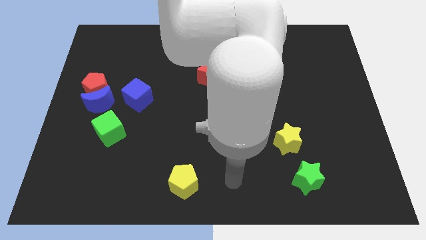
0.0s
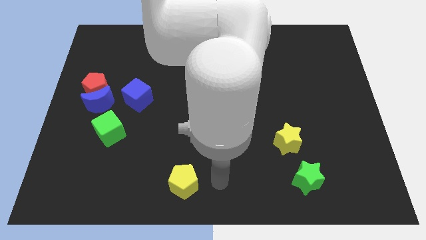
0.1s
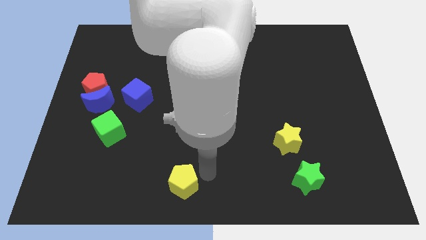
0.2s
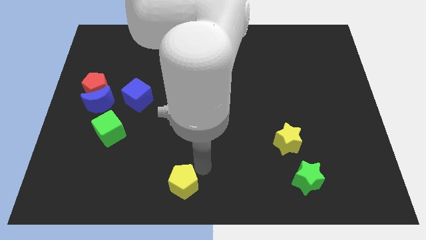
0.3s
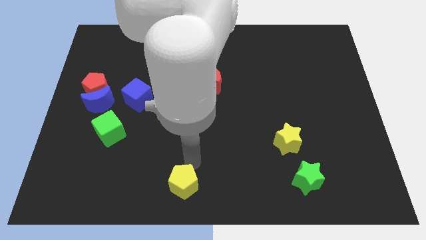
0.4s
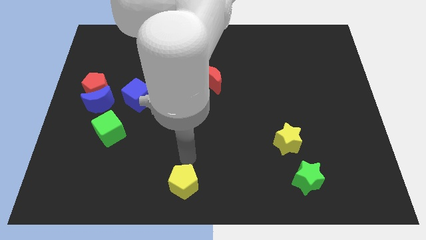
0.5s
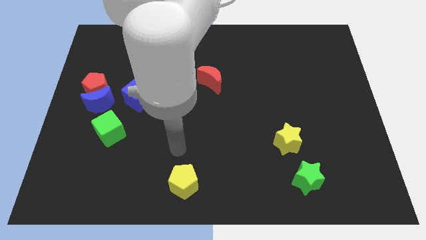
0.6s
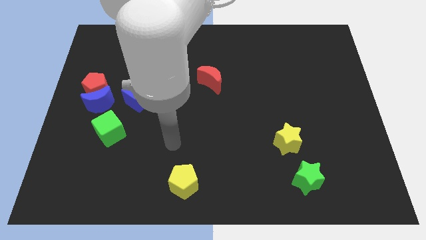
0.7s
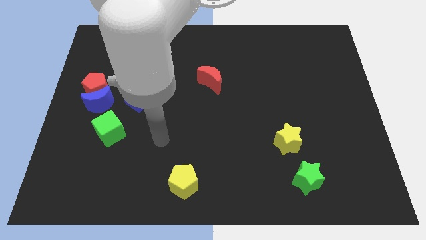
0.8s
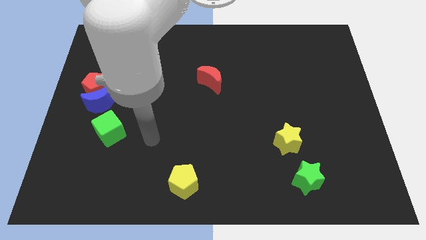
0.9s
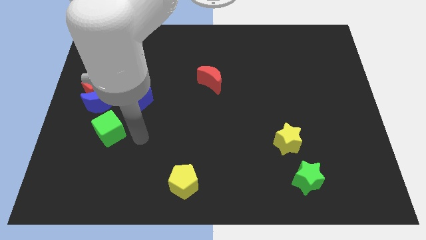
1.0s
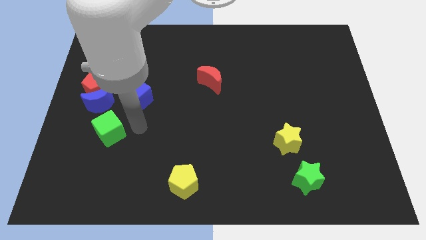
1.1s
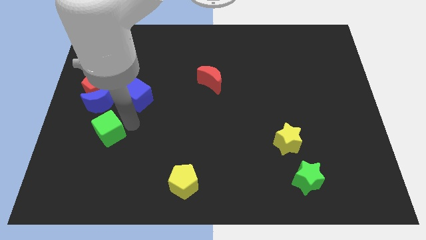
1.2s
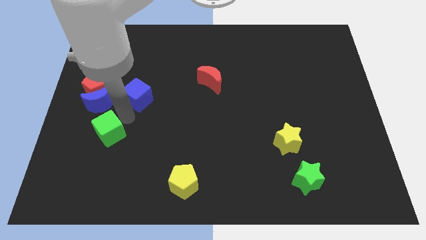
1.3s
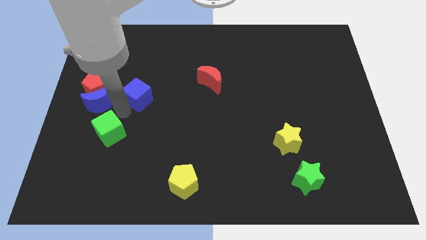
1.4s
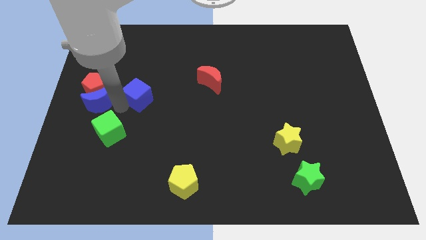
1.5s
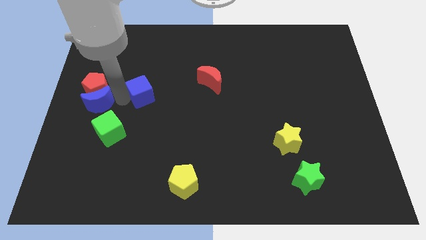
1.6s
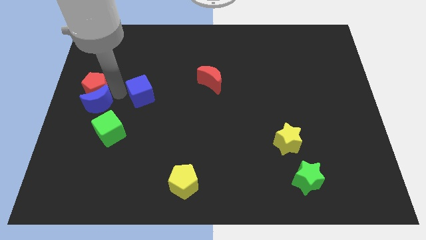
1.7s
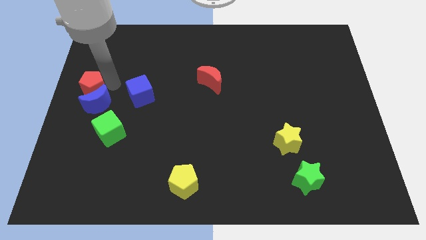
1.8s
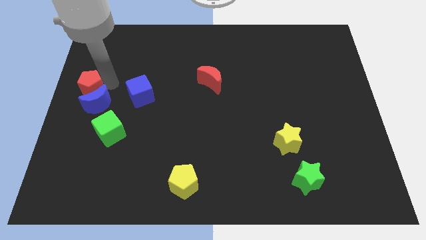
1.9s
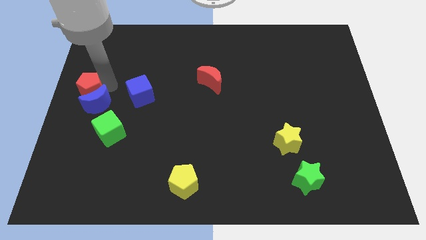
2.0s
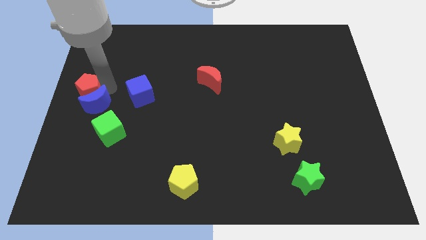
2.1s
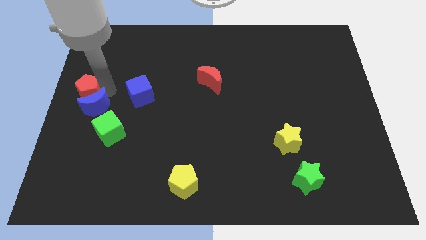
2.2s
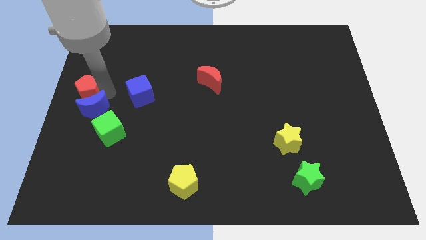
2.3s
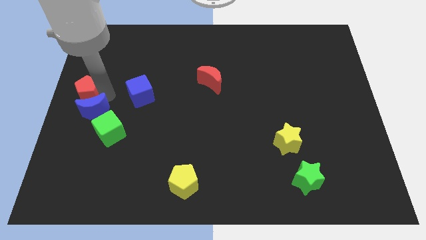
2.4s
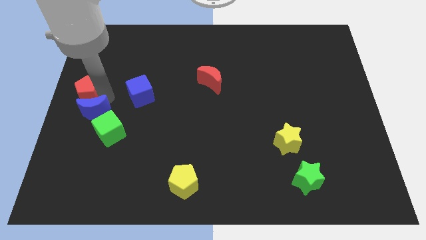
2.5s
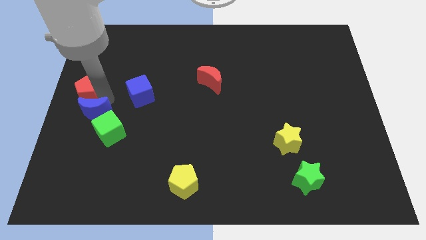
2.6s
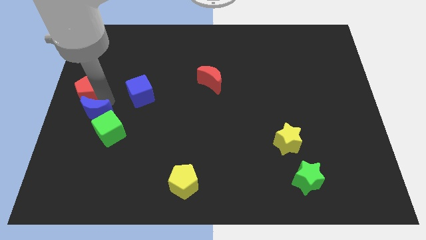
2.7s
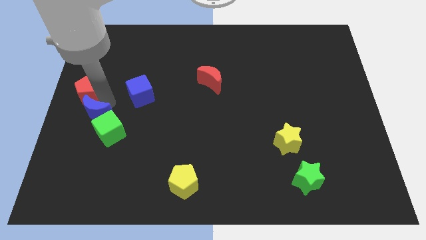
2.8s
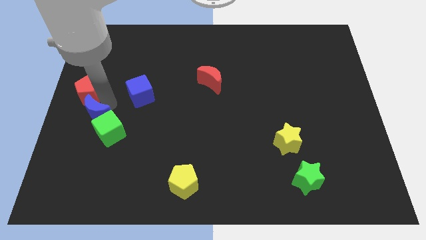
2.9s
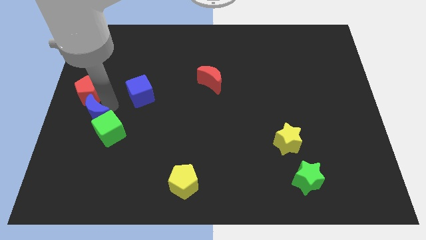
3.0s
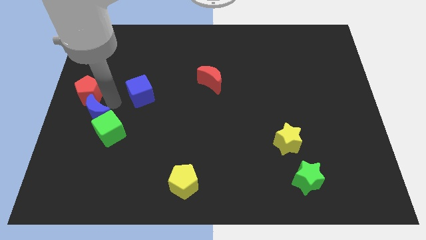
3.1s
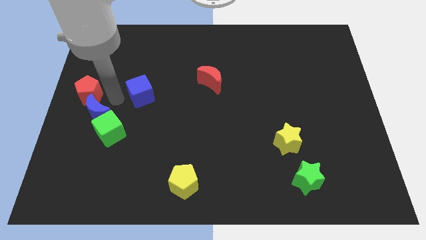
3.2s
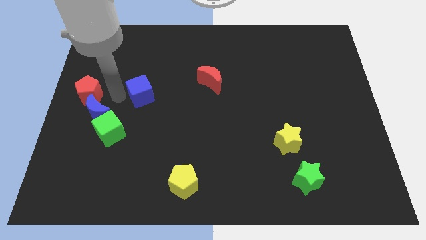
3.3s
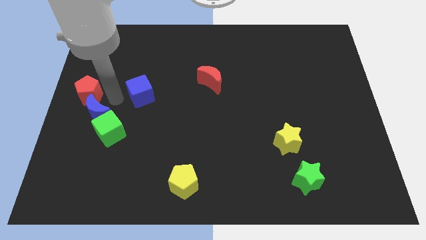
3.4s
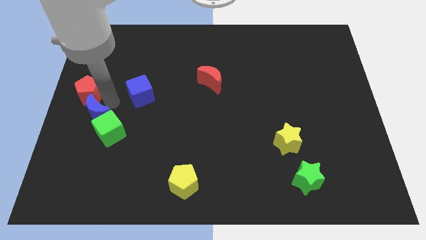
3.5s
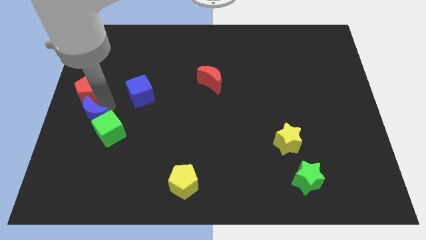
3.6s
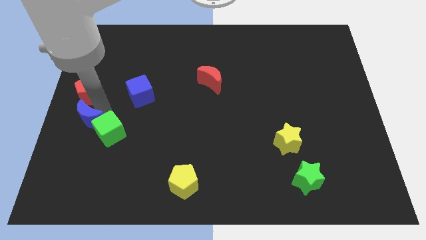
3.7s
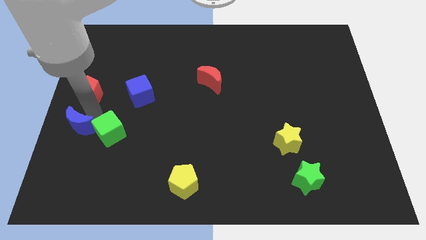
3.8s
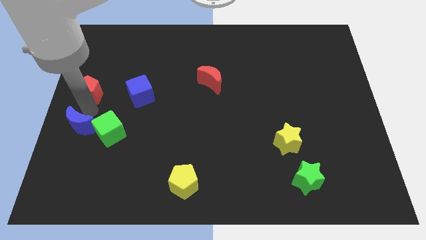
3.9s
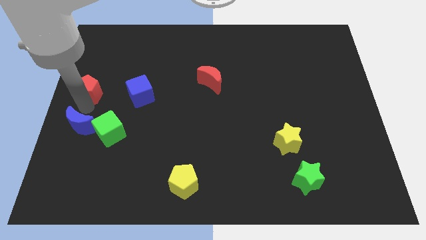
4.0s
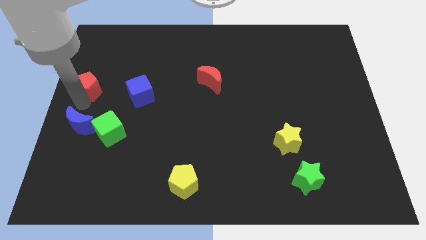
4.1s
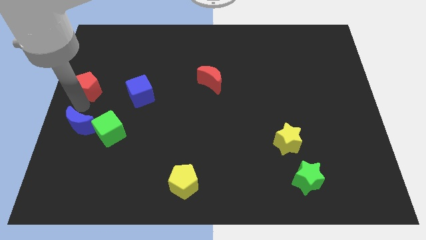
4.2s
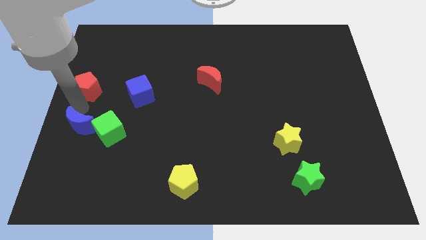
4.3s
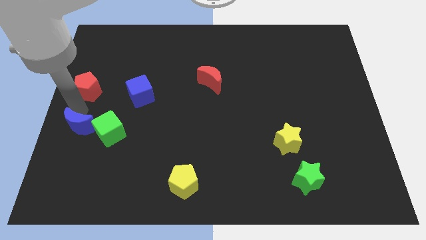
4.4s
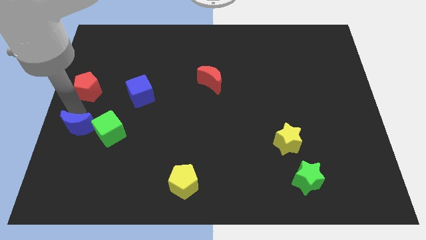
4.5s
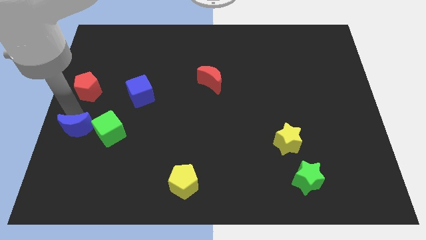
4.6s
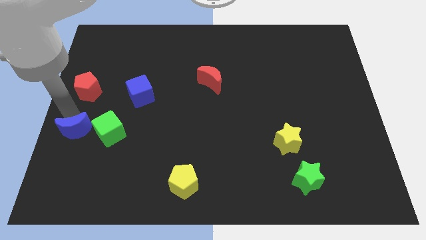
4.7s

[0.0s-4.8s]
push the blue moon slightly down

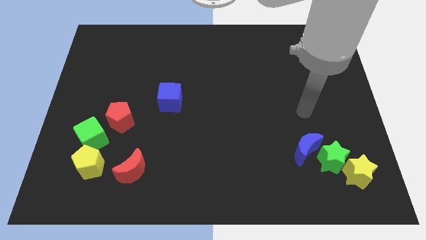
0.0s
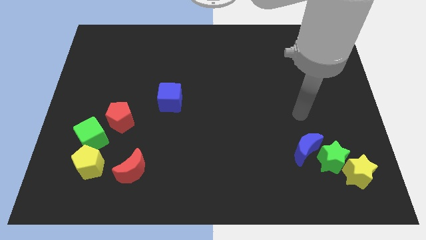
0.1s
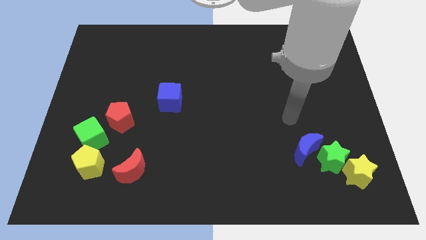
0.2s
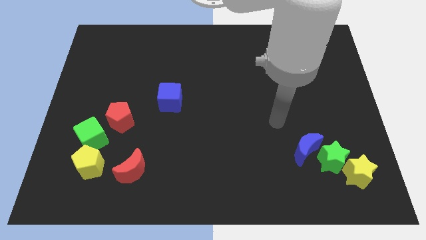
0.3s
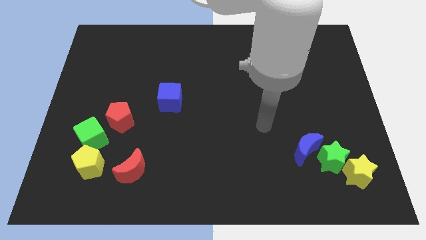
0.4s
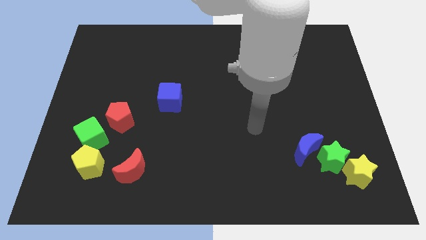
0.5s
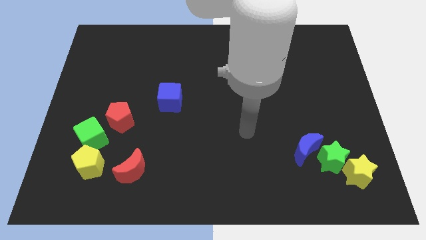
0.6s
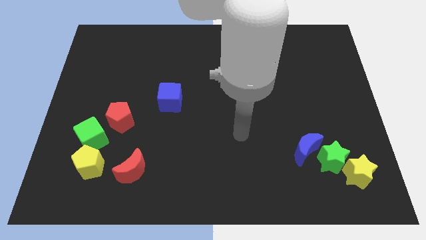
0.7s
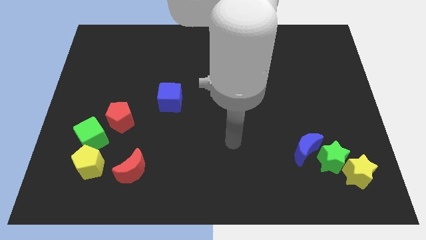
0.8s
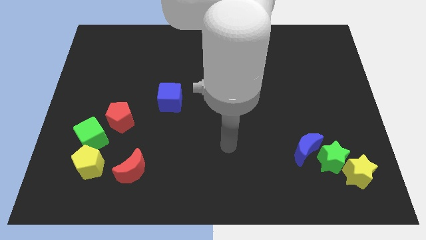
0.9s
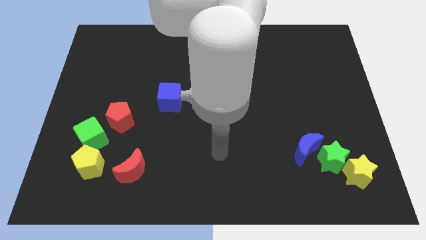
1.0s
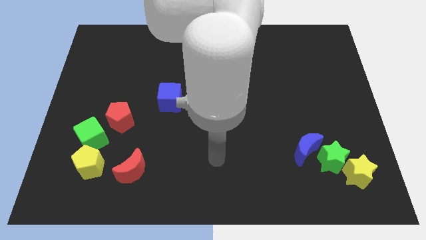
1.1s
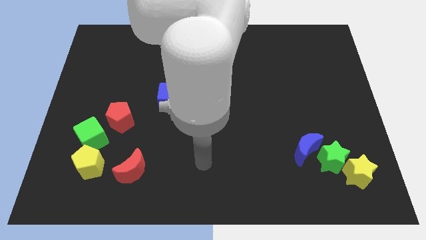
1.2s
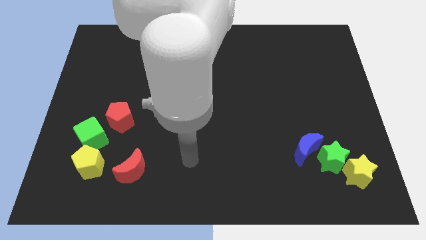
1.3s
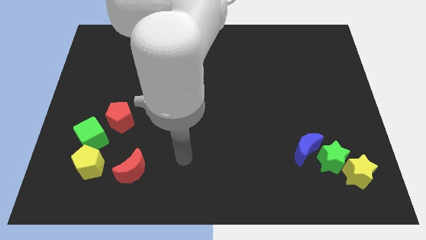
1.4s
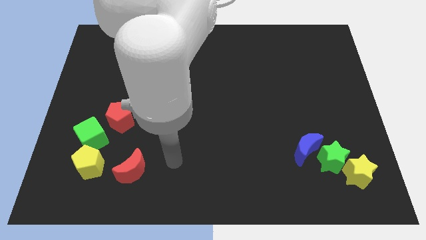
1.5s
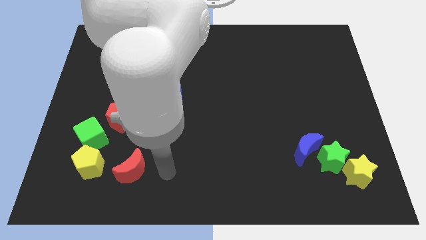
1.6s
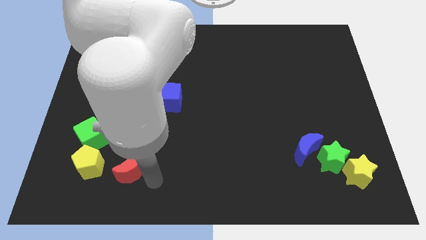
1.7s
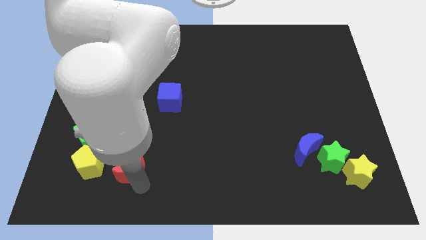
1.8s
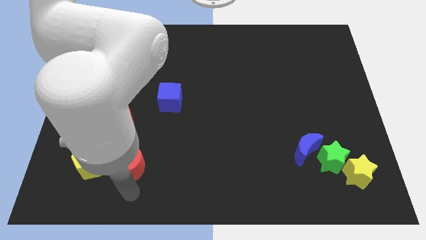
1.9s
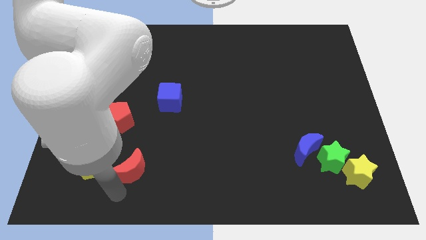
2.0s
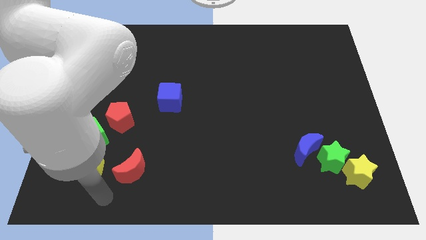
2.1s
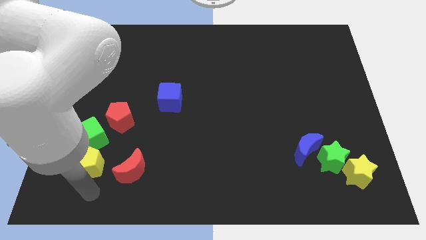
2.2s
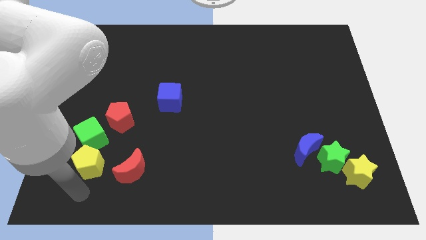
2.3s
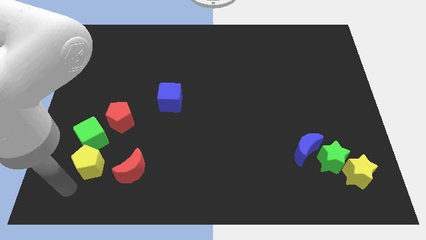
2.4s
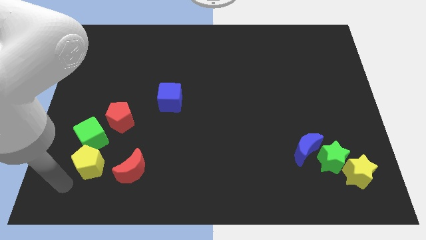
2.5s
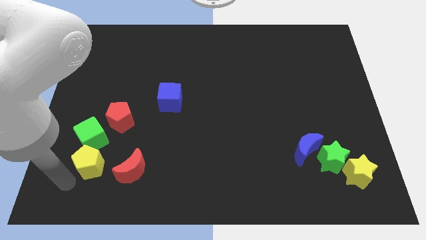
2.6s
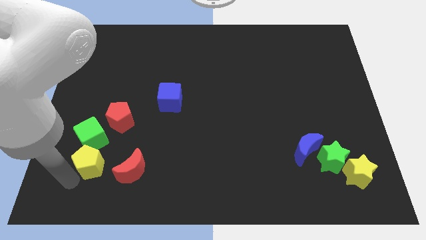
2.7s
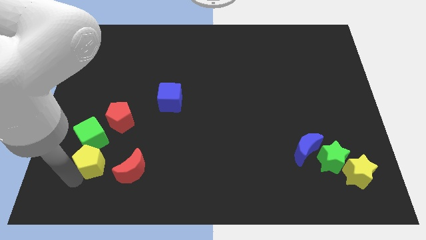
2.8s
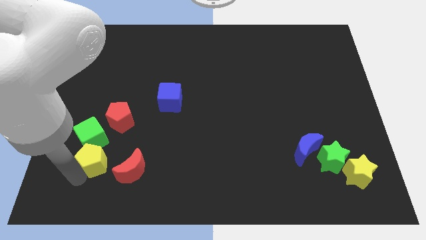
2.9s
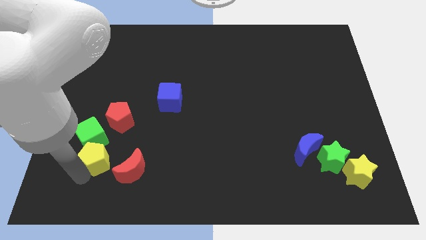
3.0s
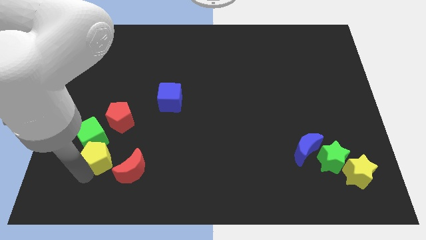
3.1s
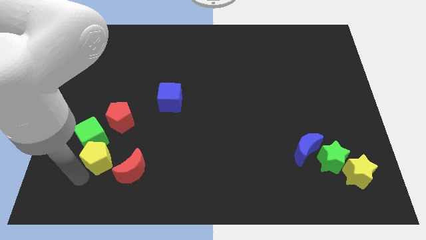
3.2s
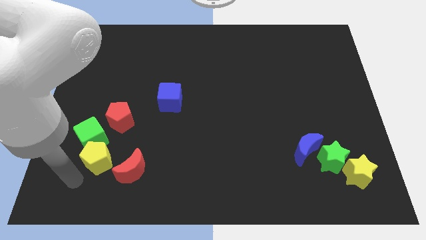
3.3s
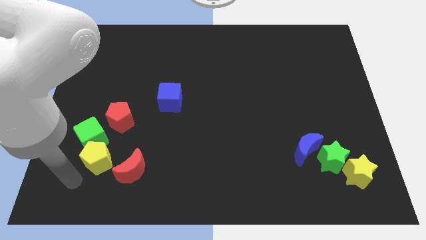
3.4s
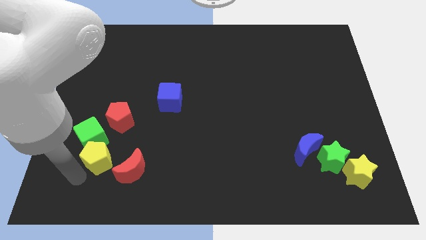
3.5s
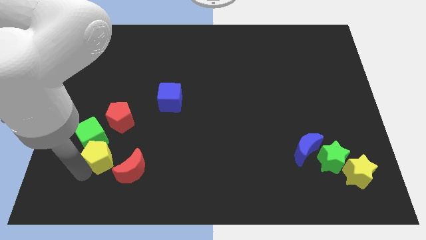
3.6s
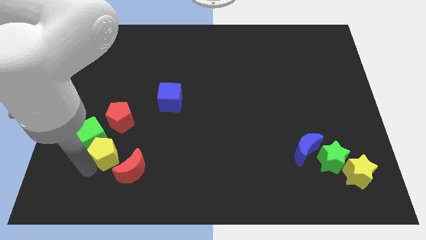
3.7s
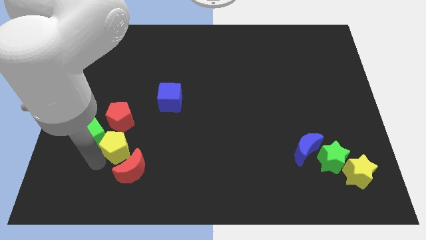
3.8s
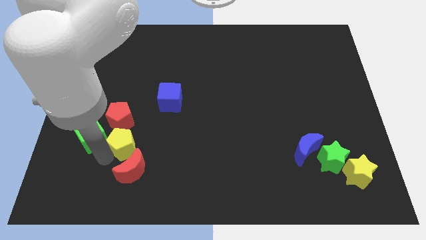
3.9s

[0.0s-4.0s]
slide the yellow pentagon a little bit up and to the right
